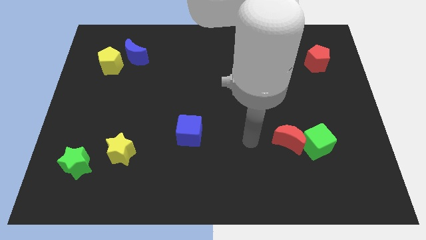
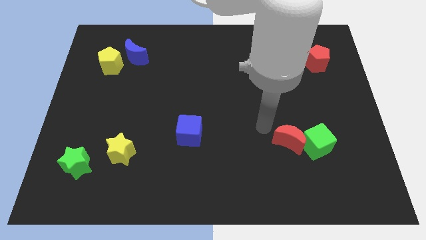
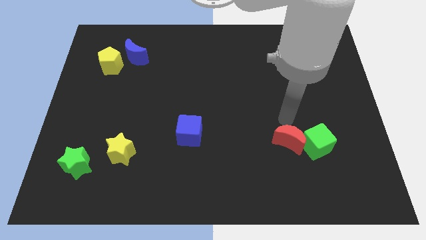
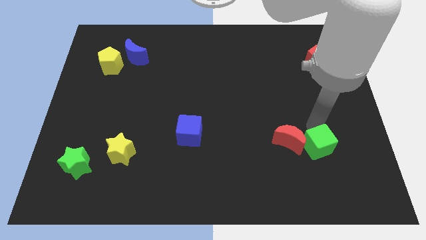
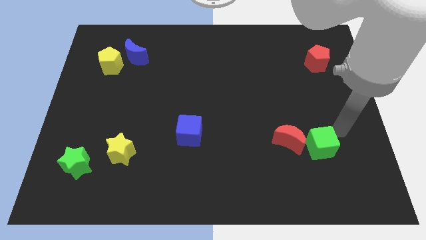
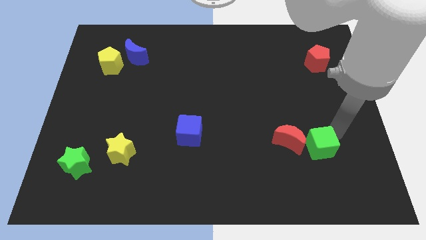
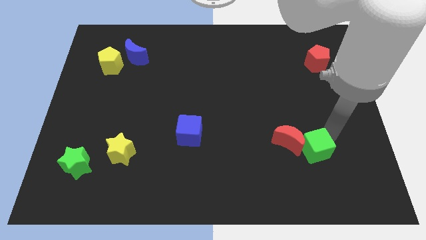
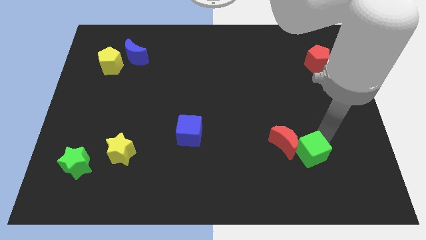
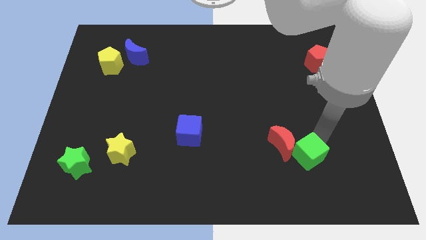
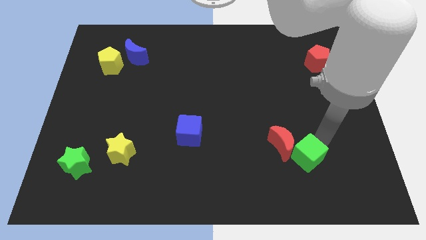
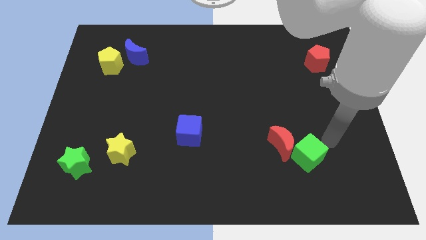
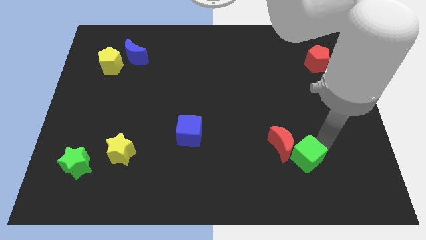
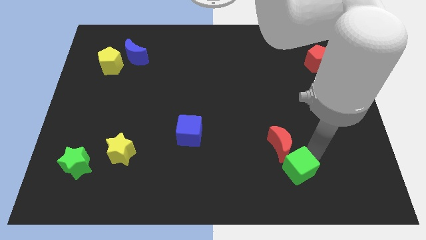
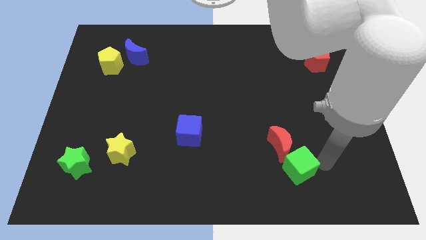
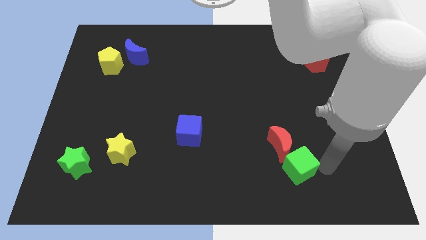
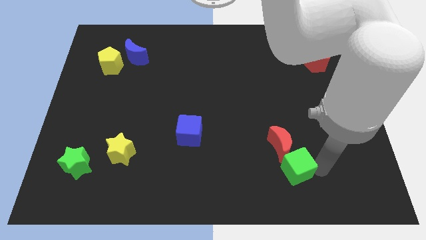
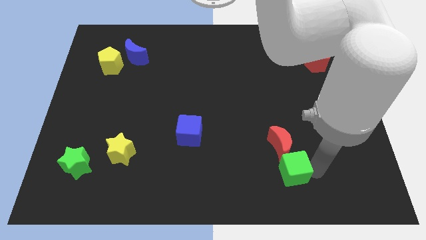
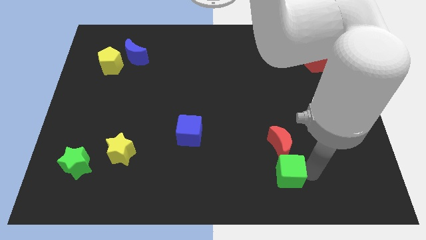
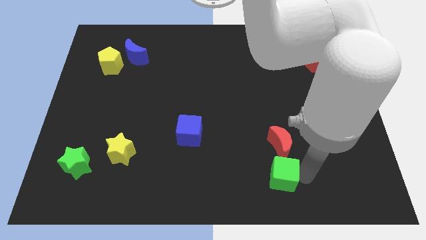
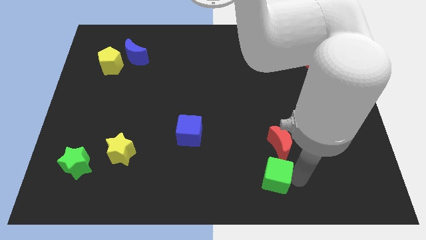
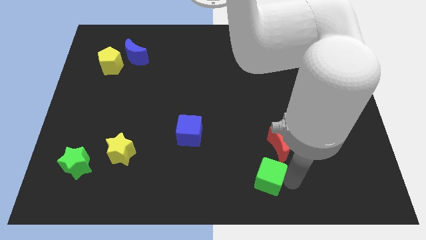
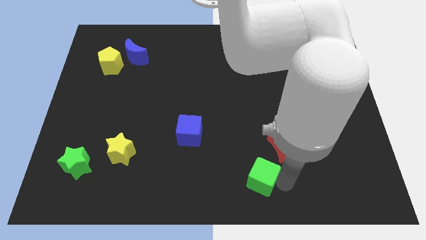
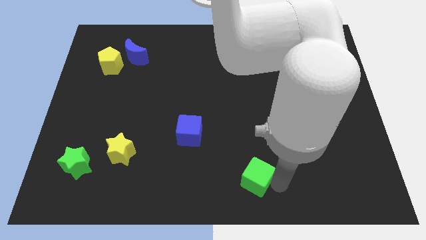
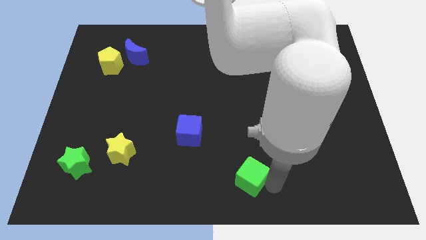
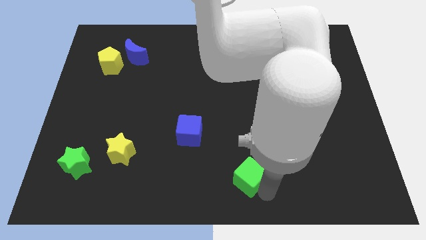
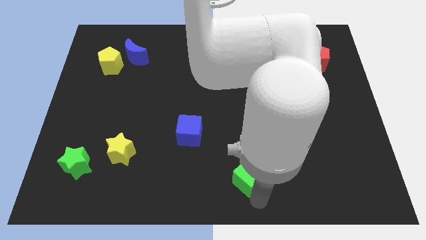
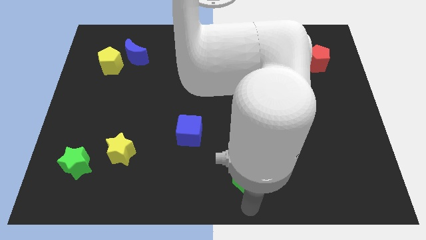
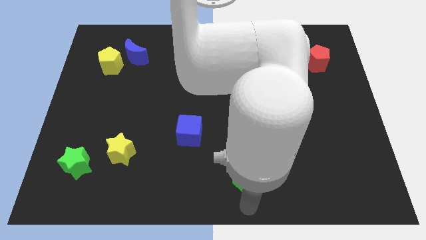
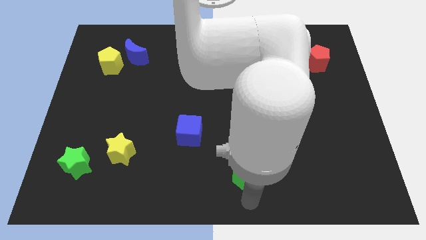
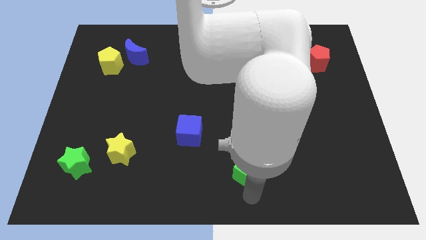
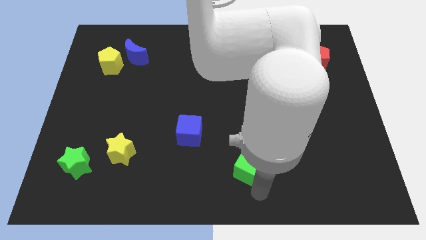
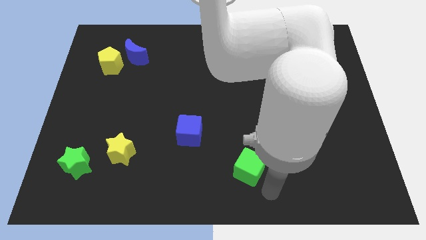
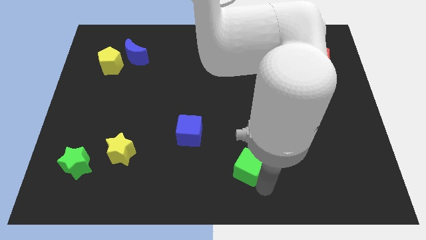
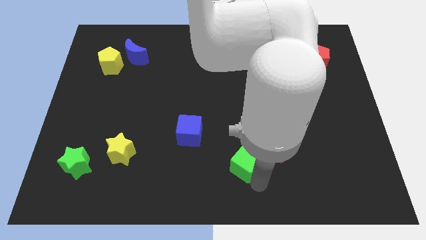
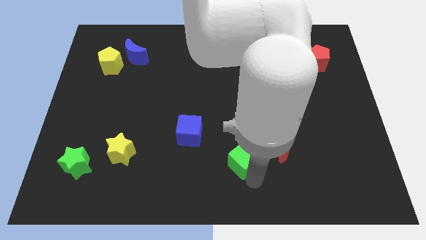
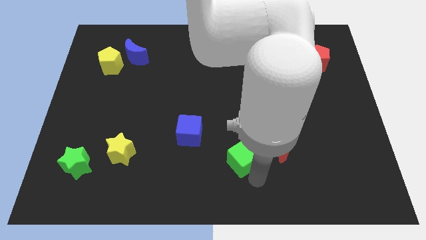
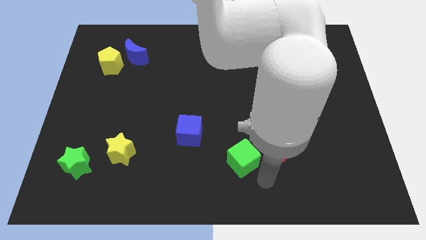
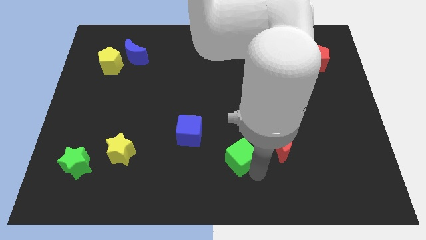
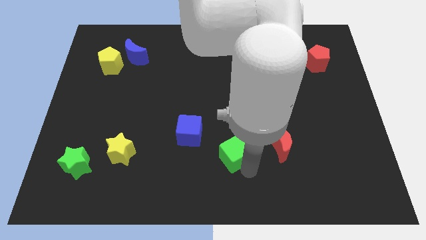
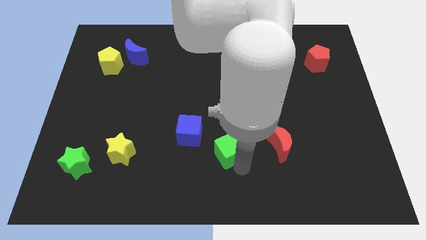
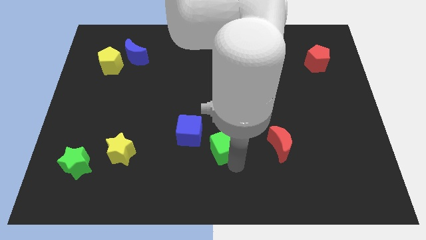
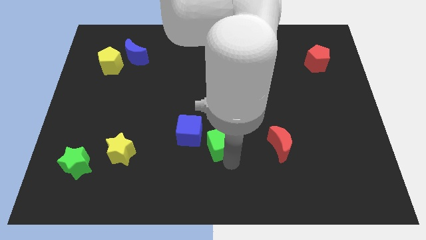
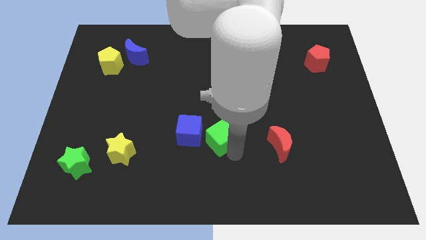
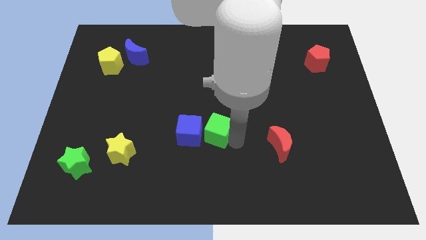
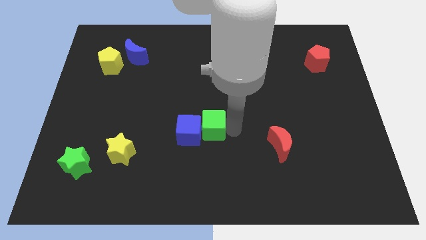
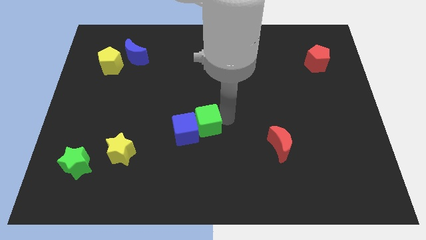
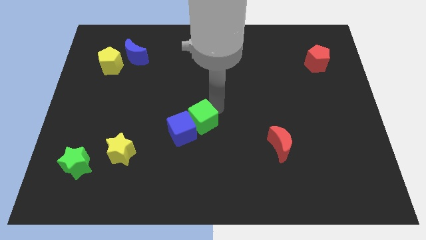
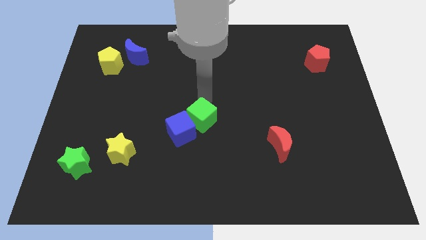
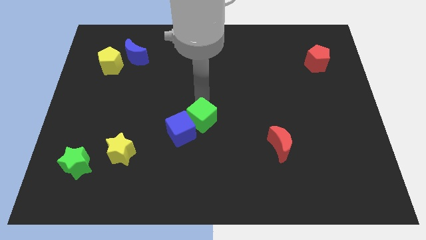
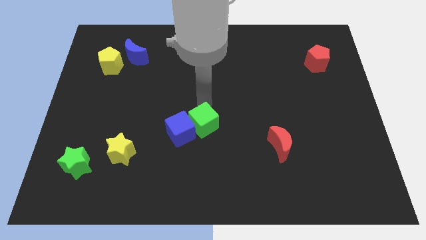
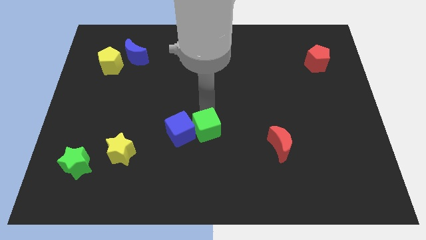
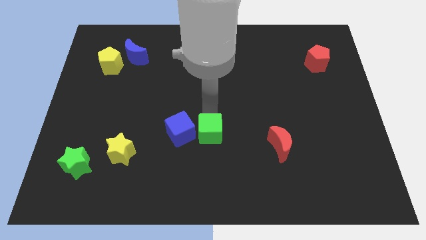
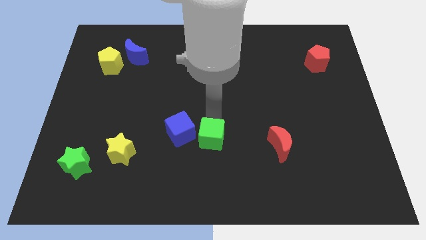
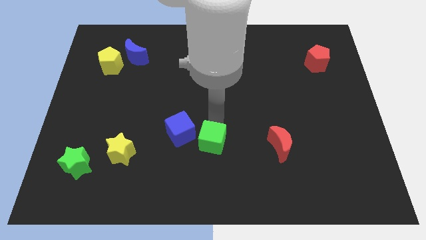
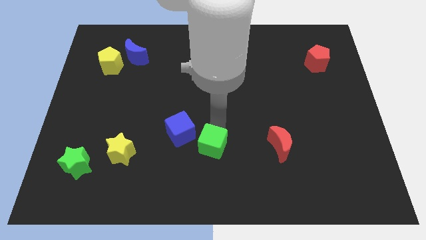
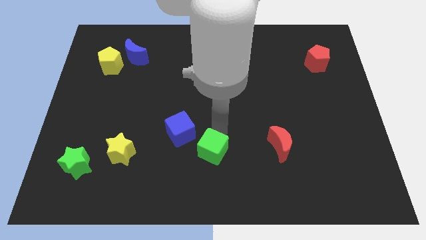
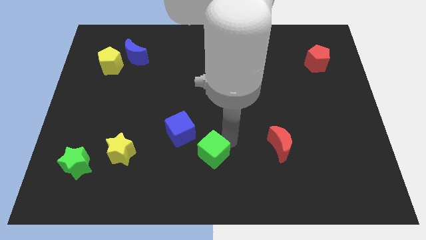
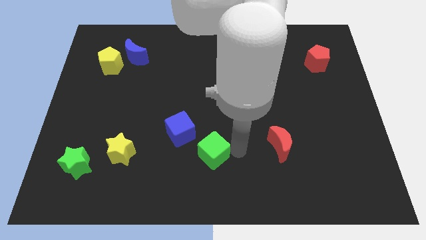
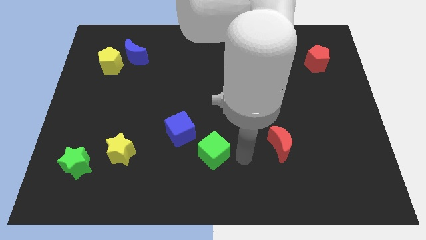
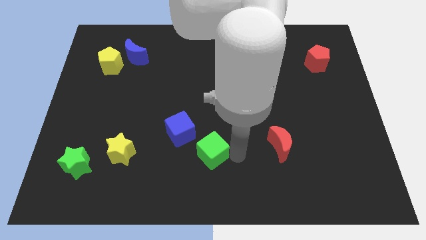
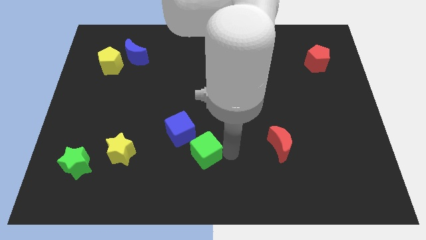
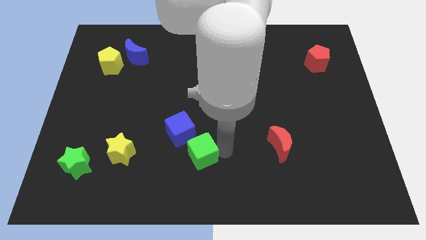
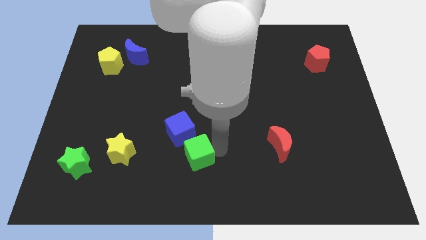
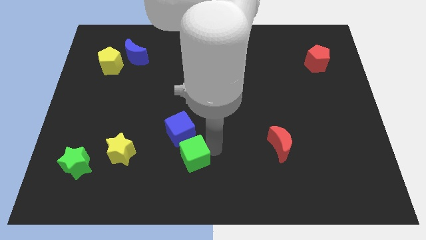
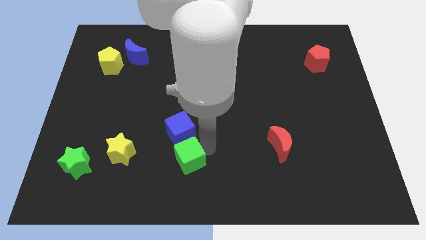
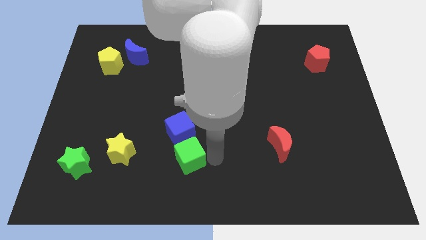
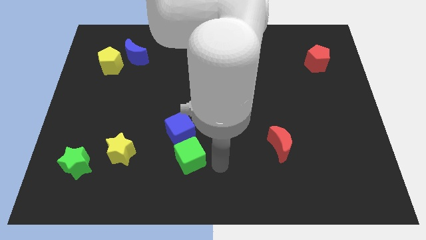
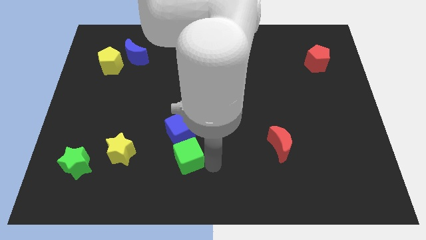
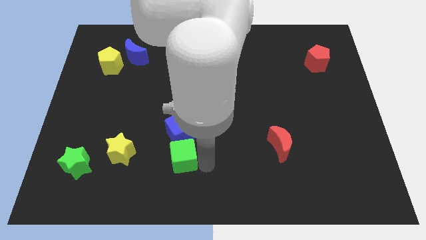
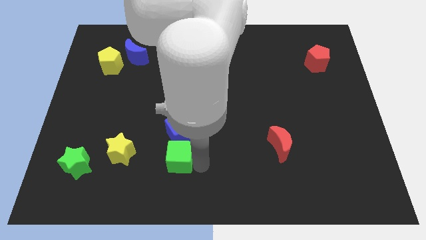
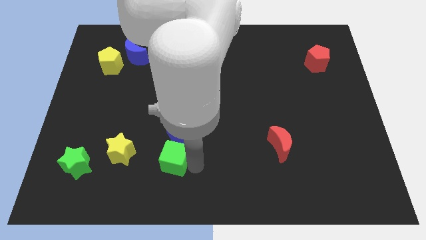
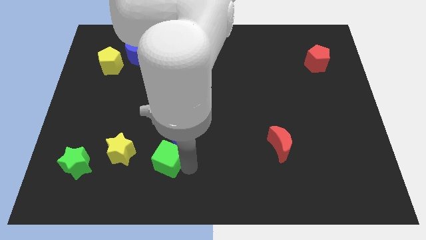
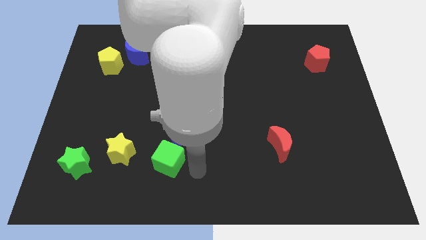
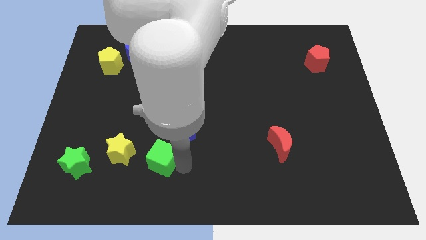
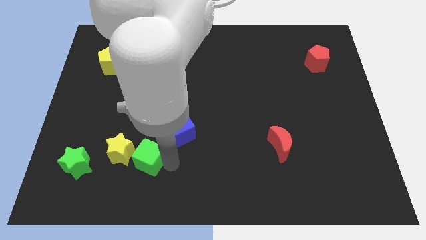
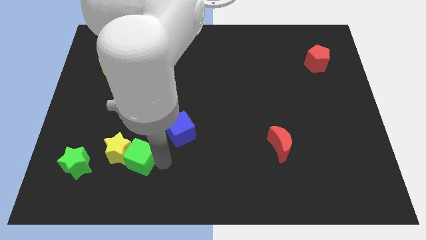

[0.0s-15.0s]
push the green cube close to the yellow star
